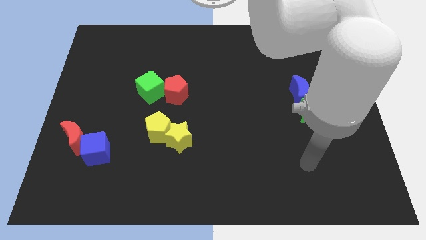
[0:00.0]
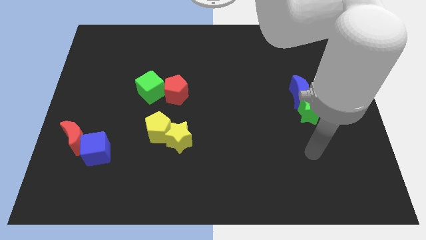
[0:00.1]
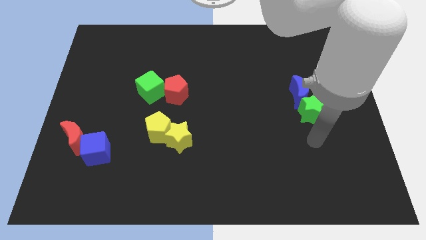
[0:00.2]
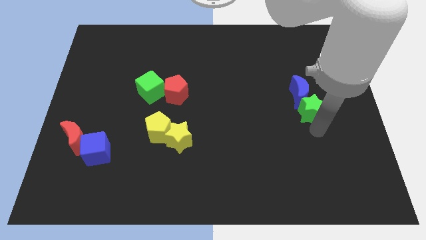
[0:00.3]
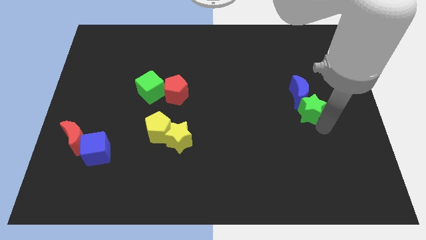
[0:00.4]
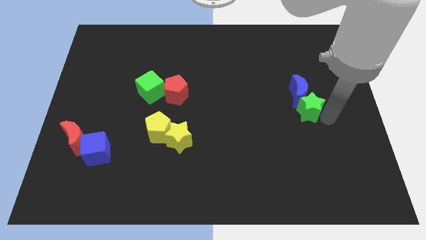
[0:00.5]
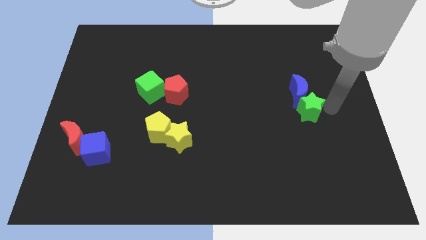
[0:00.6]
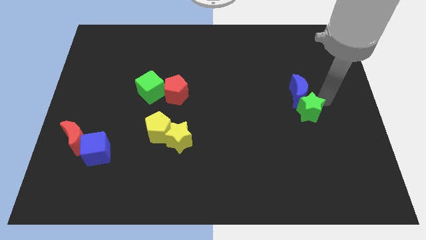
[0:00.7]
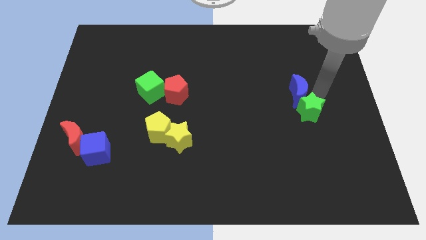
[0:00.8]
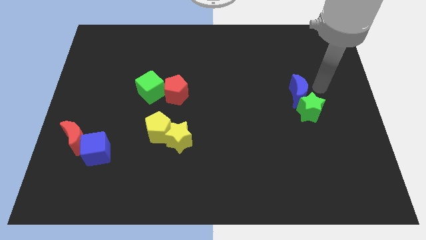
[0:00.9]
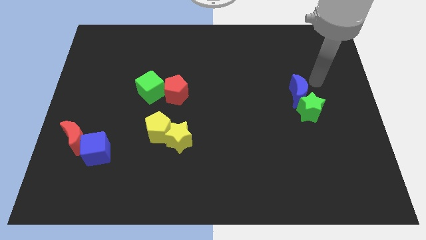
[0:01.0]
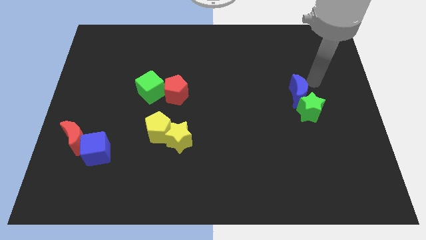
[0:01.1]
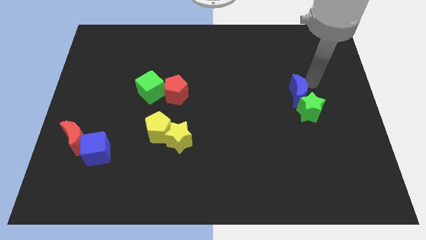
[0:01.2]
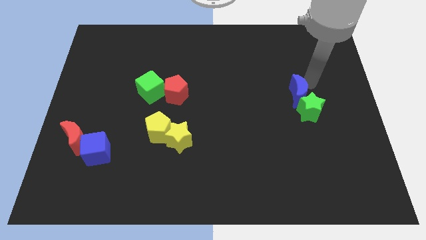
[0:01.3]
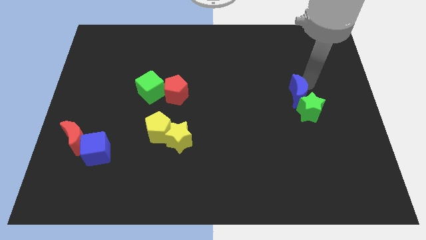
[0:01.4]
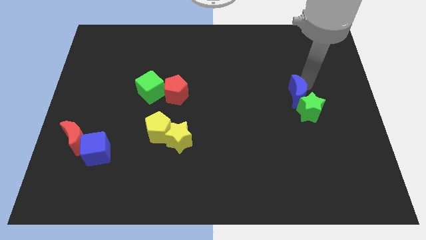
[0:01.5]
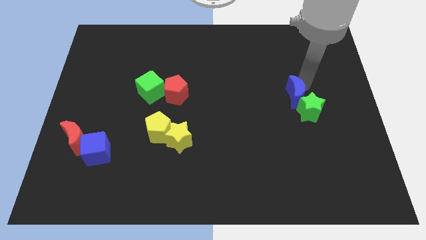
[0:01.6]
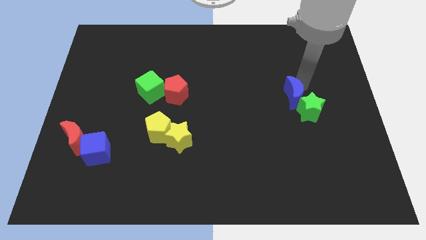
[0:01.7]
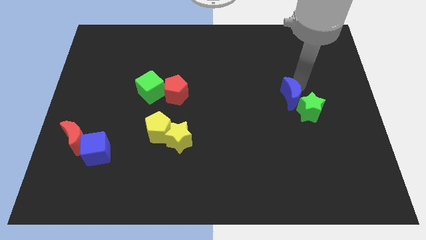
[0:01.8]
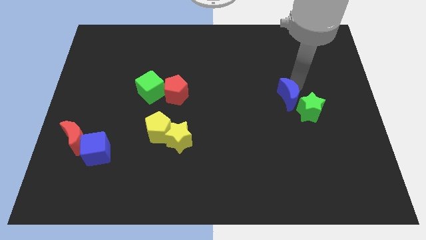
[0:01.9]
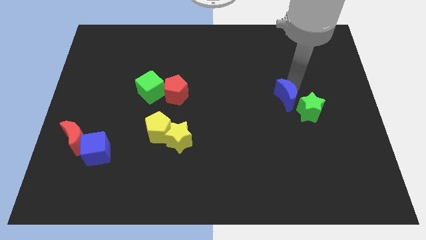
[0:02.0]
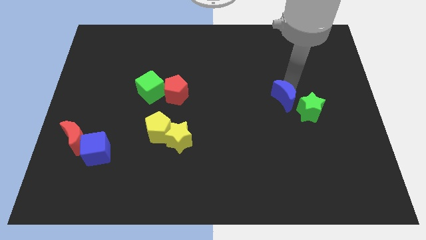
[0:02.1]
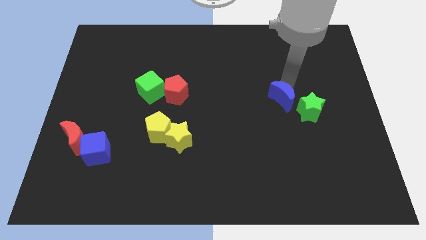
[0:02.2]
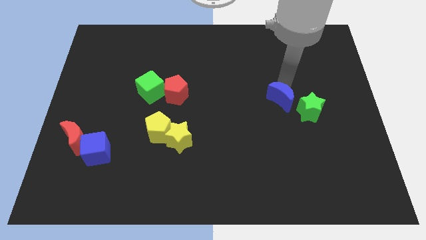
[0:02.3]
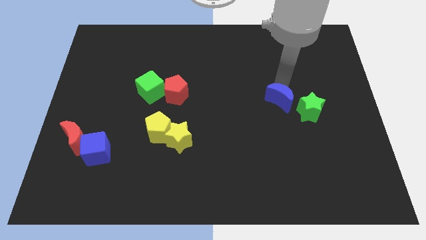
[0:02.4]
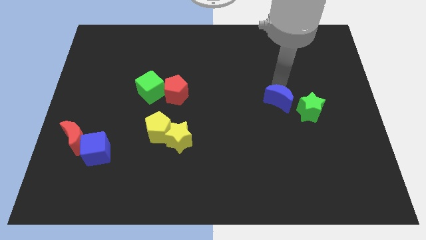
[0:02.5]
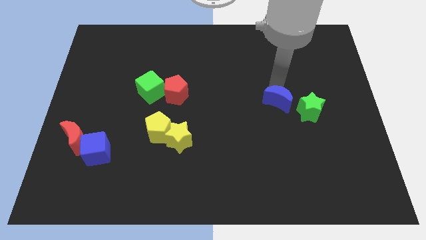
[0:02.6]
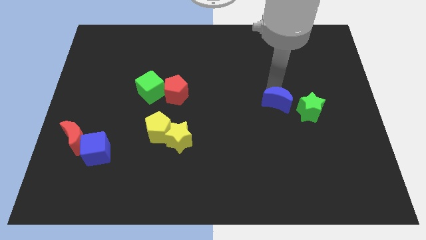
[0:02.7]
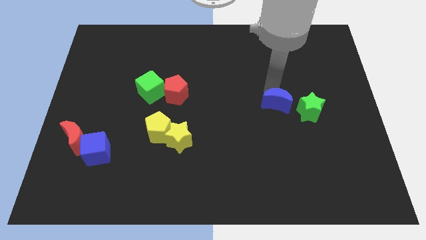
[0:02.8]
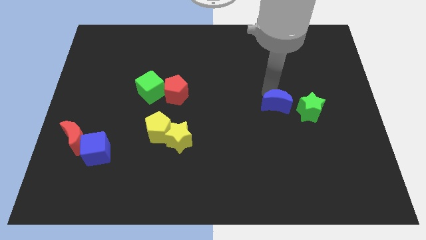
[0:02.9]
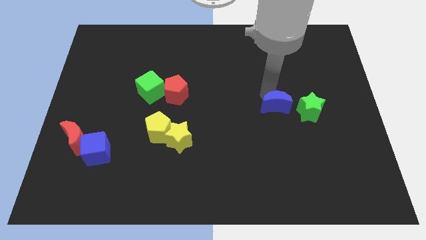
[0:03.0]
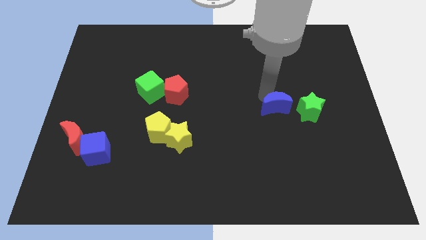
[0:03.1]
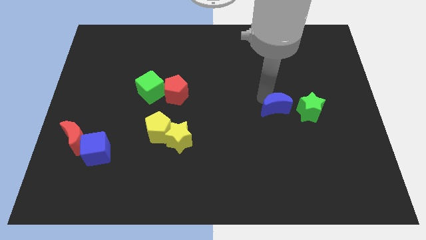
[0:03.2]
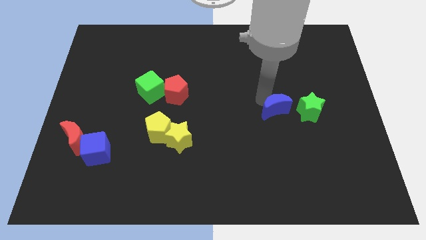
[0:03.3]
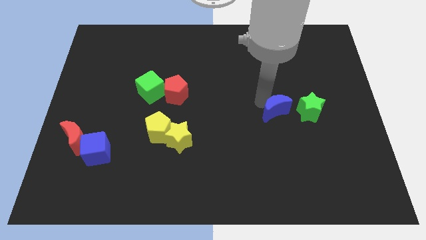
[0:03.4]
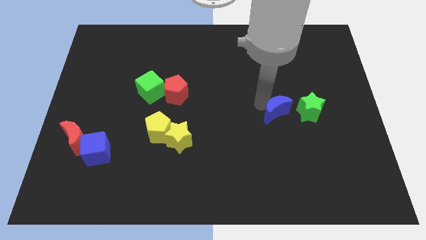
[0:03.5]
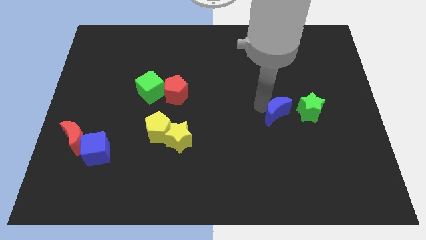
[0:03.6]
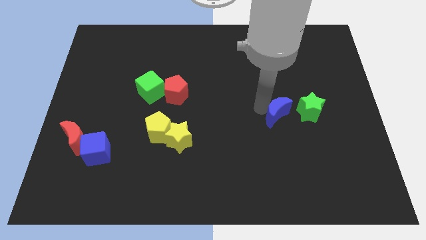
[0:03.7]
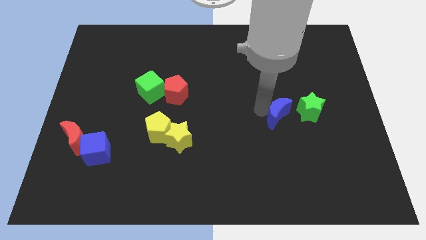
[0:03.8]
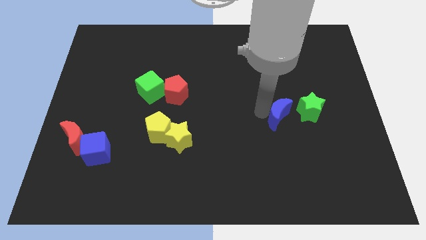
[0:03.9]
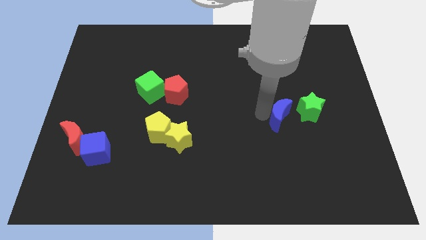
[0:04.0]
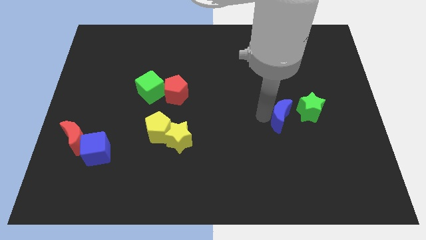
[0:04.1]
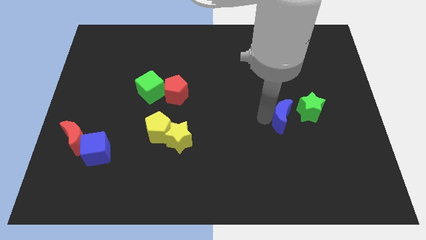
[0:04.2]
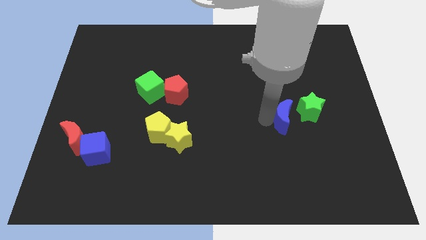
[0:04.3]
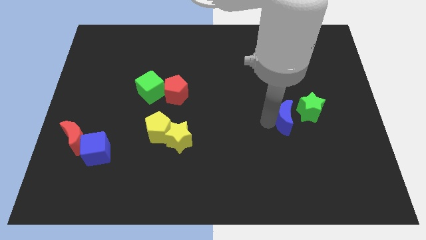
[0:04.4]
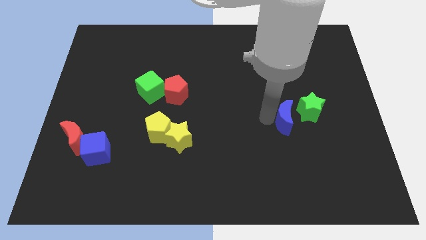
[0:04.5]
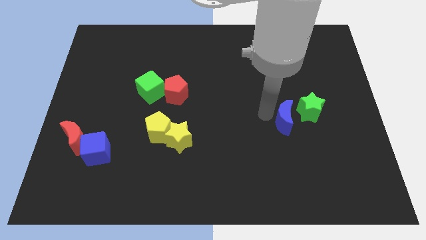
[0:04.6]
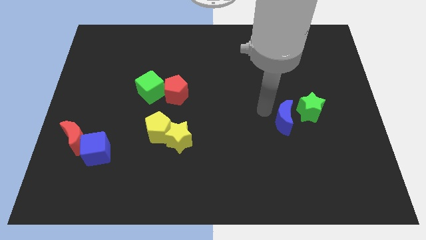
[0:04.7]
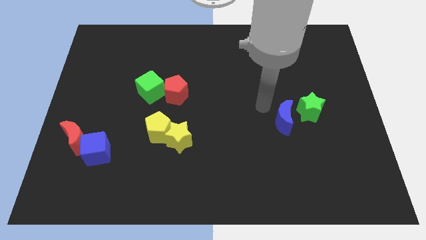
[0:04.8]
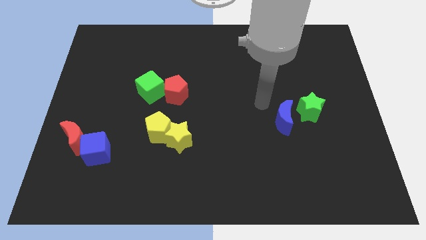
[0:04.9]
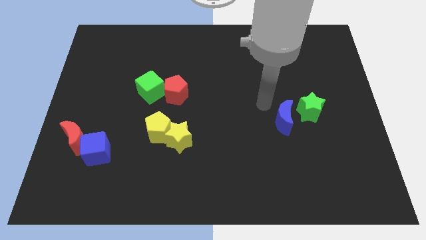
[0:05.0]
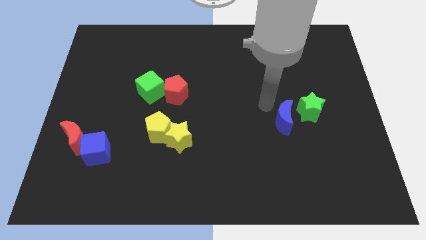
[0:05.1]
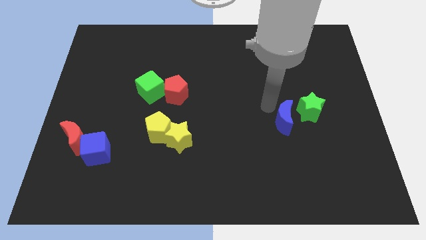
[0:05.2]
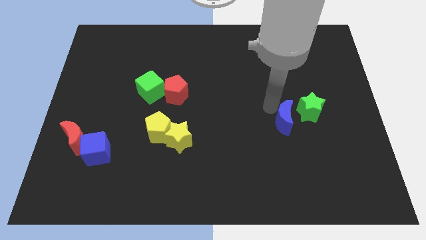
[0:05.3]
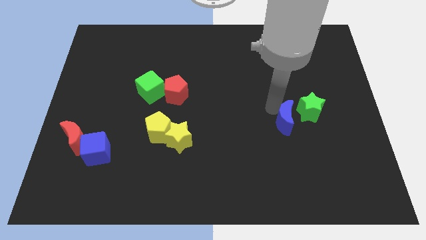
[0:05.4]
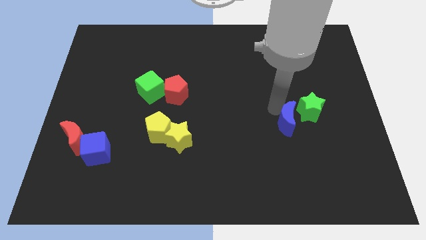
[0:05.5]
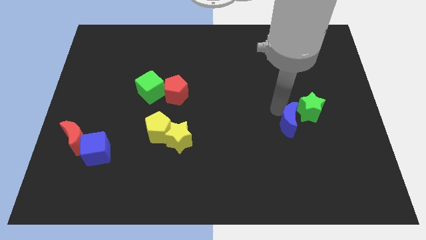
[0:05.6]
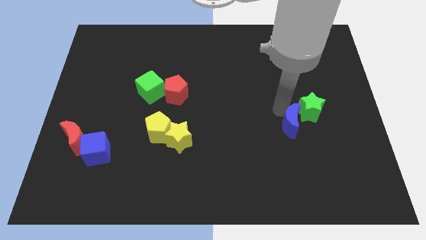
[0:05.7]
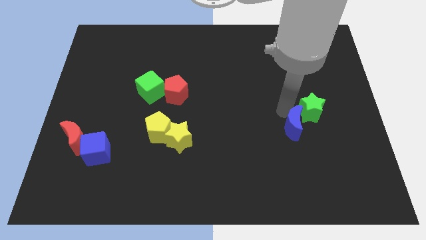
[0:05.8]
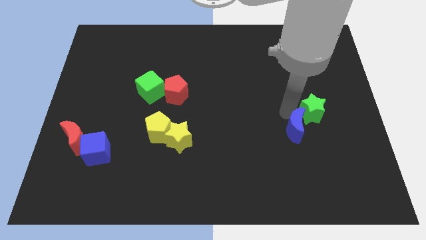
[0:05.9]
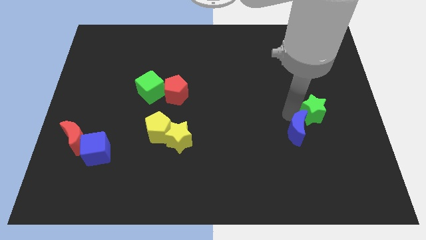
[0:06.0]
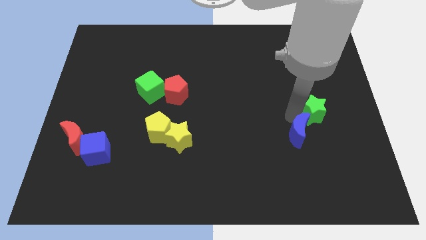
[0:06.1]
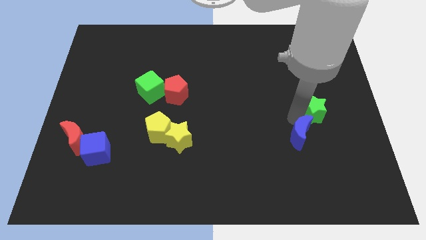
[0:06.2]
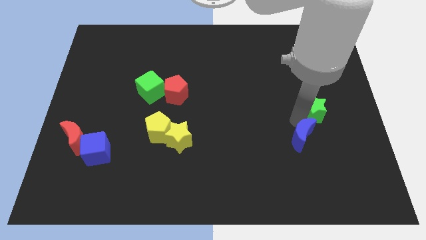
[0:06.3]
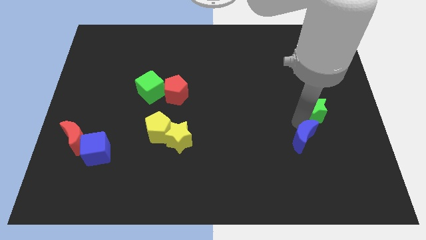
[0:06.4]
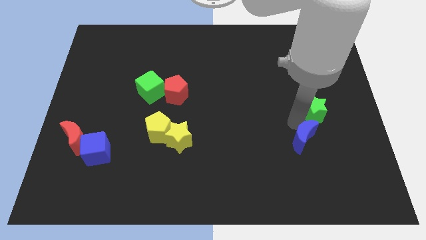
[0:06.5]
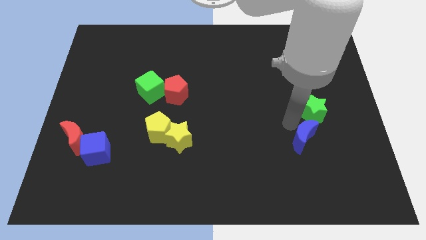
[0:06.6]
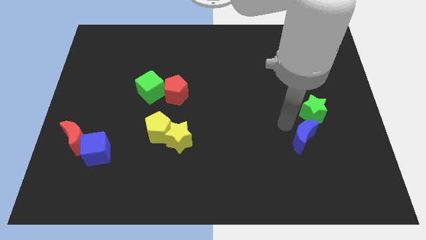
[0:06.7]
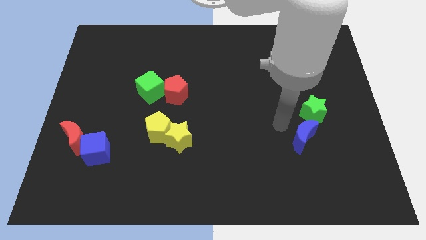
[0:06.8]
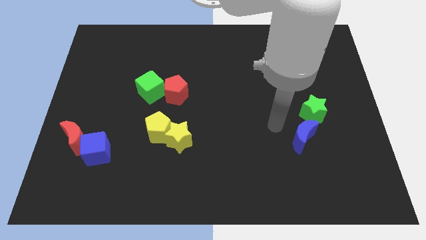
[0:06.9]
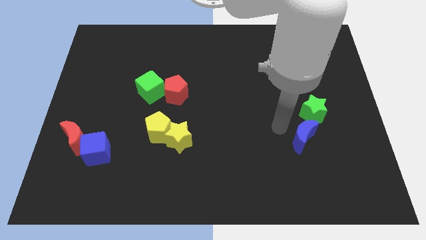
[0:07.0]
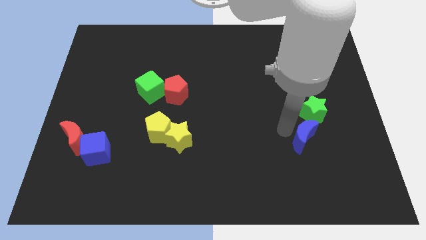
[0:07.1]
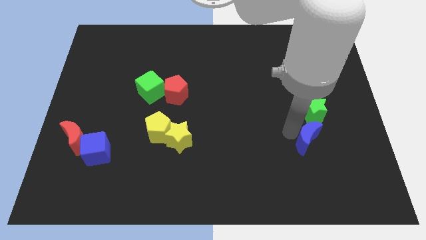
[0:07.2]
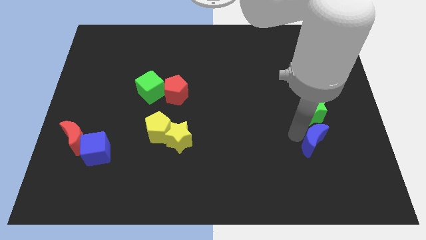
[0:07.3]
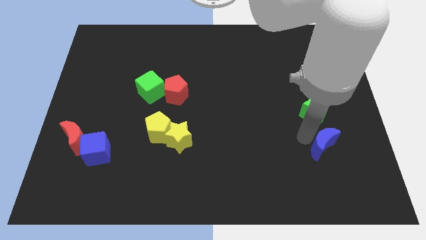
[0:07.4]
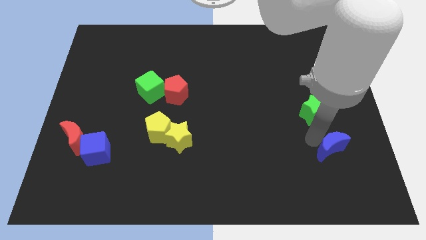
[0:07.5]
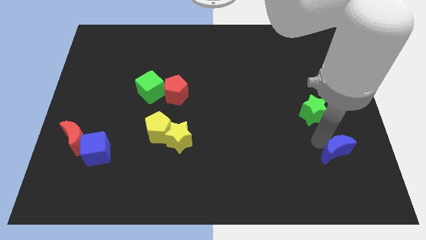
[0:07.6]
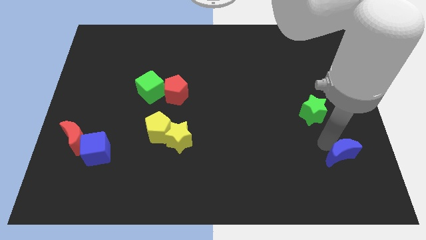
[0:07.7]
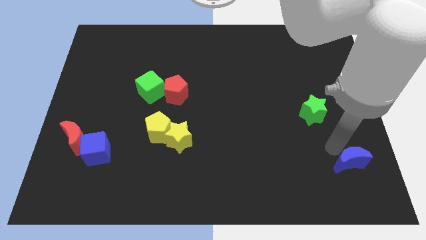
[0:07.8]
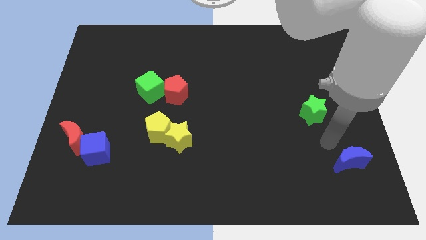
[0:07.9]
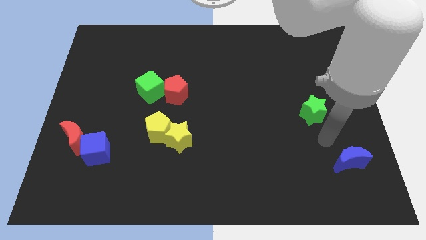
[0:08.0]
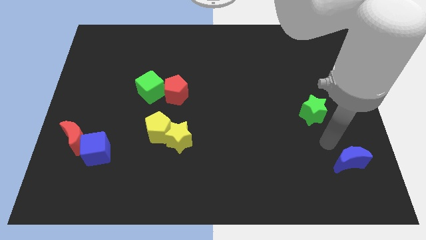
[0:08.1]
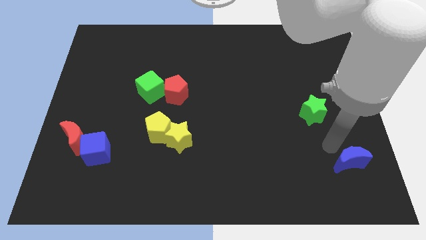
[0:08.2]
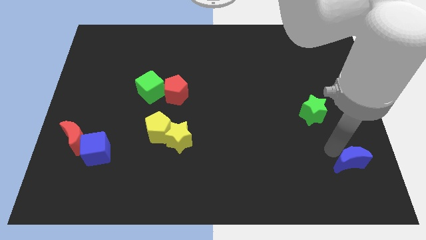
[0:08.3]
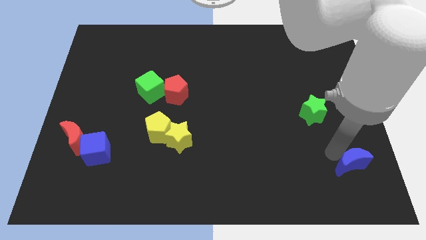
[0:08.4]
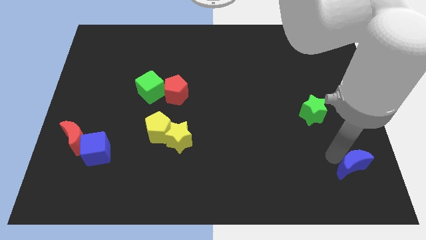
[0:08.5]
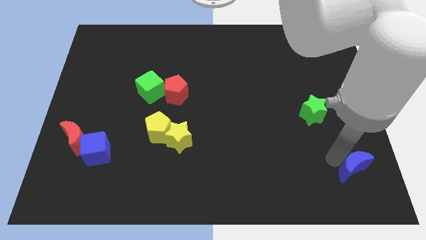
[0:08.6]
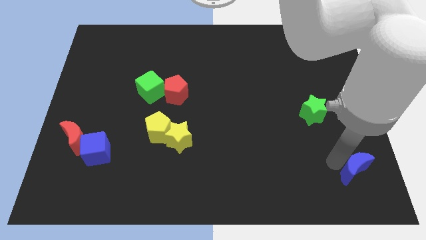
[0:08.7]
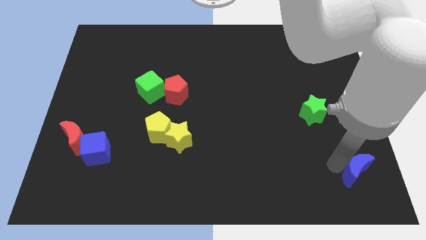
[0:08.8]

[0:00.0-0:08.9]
put the blue moon to the lower right corner
